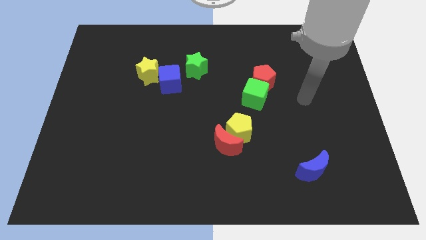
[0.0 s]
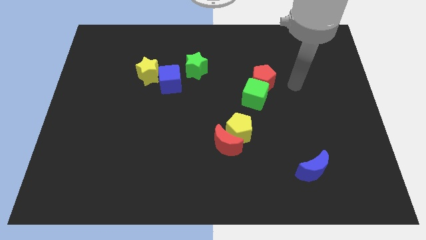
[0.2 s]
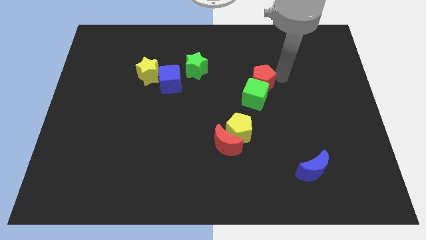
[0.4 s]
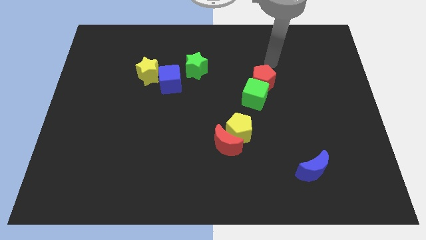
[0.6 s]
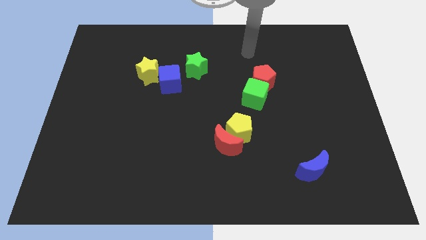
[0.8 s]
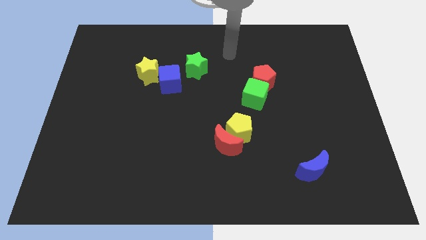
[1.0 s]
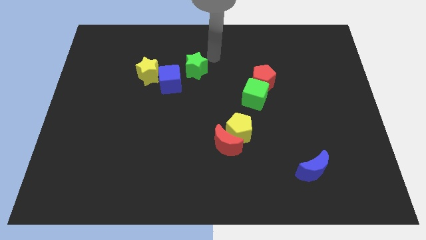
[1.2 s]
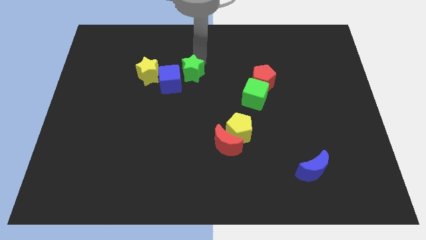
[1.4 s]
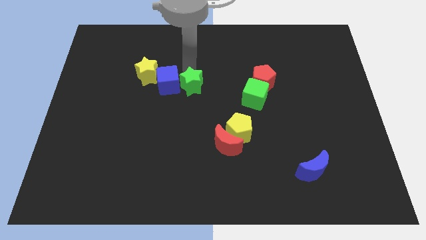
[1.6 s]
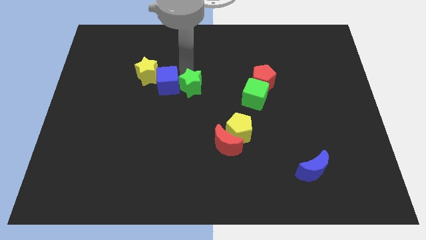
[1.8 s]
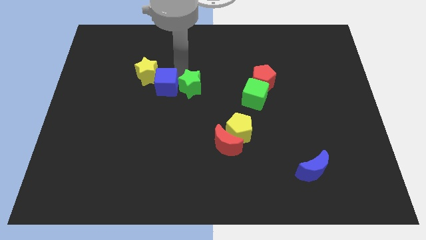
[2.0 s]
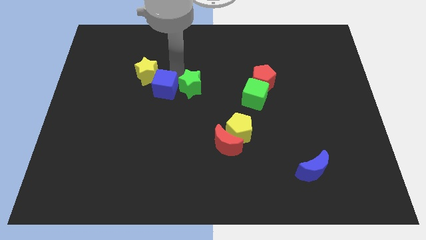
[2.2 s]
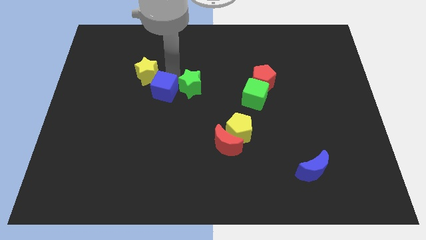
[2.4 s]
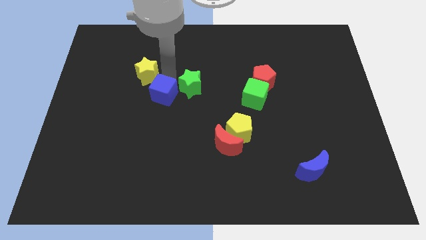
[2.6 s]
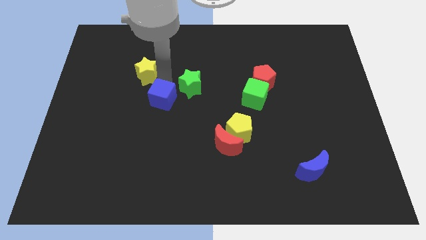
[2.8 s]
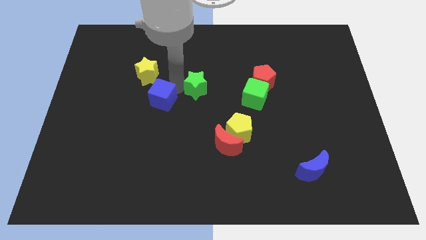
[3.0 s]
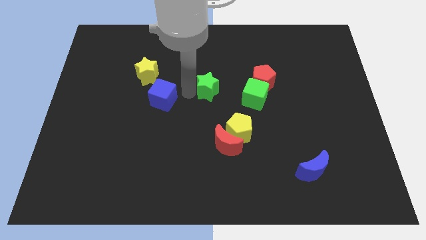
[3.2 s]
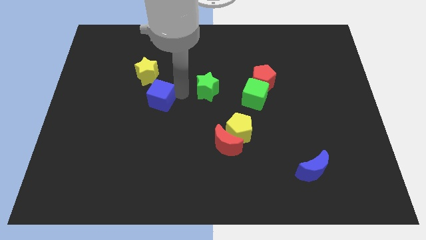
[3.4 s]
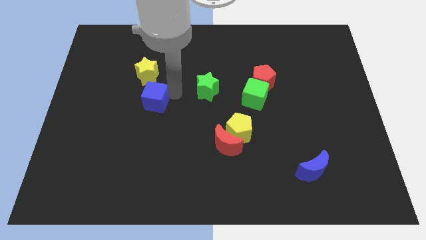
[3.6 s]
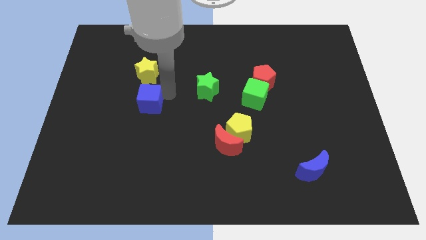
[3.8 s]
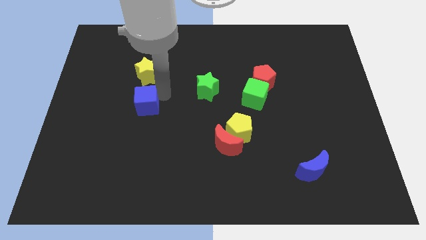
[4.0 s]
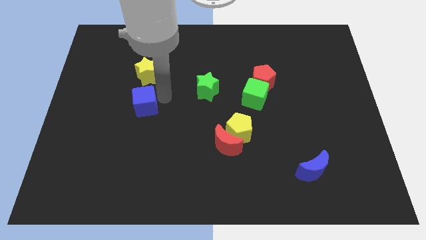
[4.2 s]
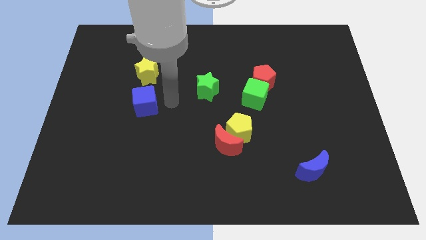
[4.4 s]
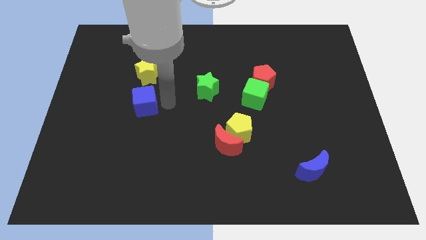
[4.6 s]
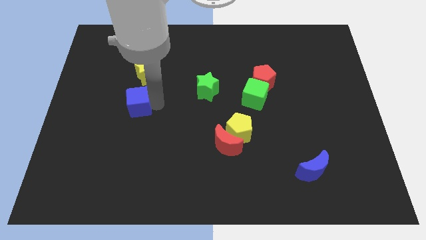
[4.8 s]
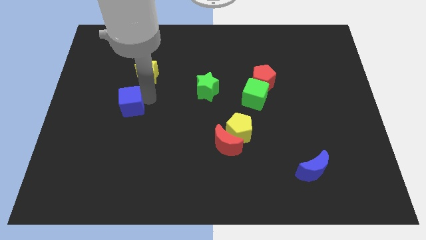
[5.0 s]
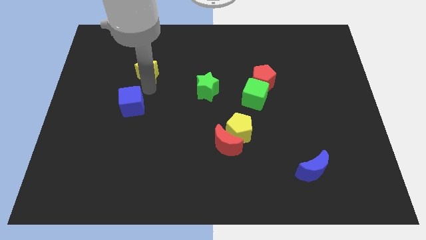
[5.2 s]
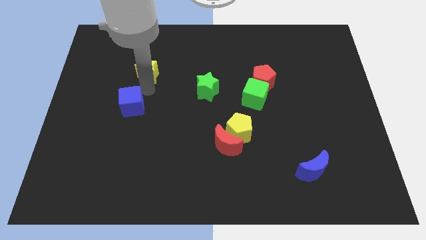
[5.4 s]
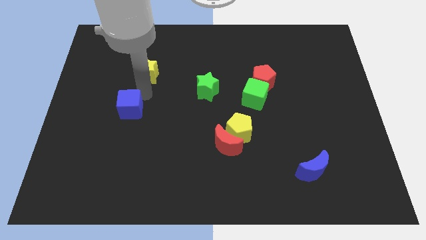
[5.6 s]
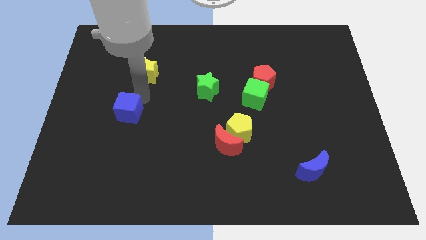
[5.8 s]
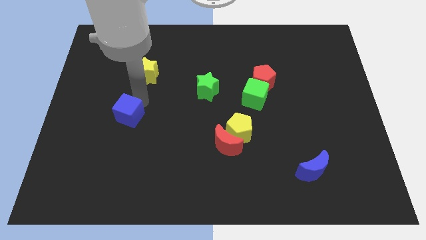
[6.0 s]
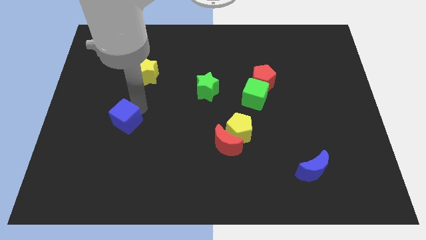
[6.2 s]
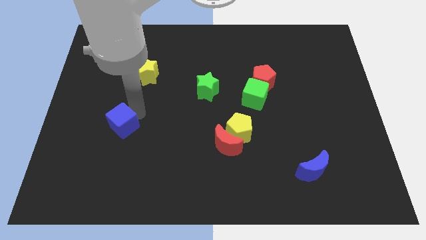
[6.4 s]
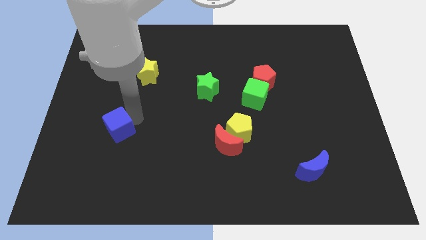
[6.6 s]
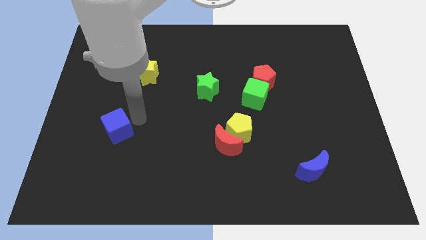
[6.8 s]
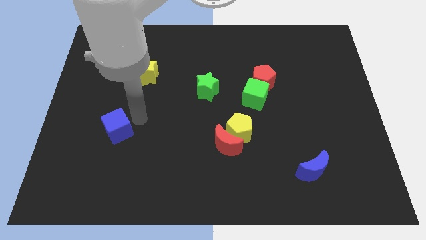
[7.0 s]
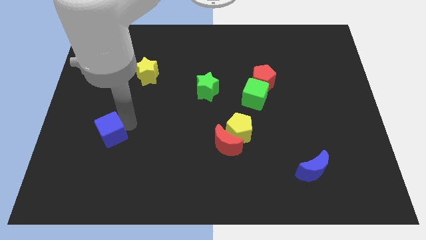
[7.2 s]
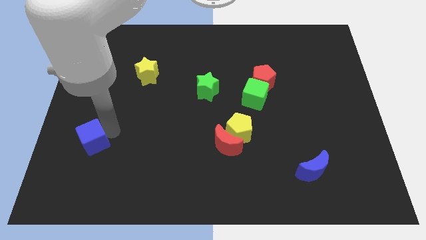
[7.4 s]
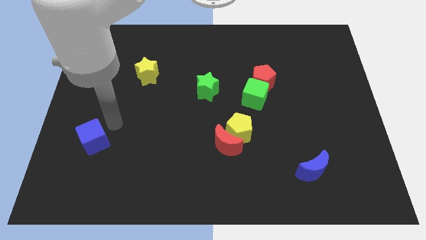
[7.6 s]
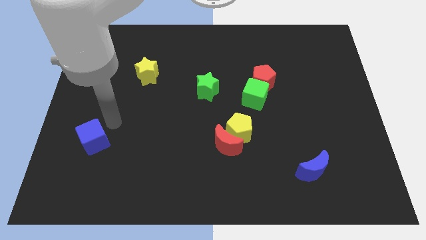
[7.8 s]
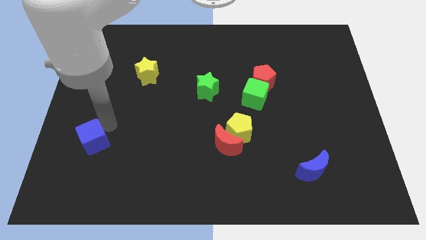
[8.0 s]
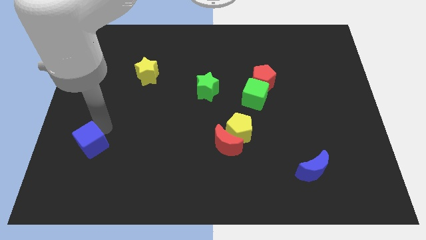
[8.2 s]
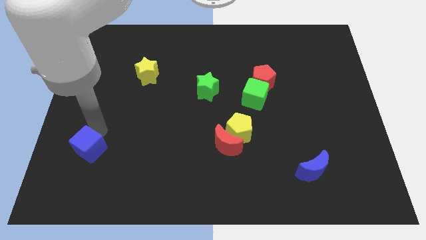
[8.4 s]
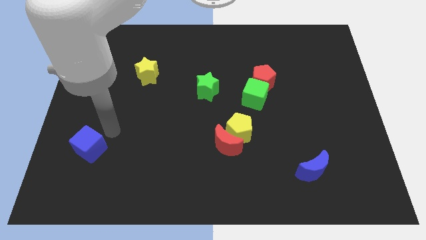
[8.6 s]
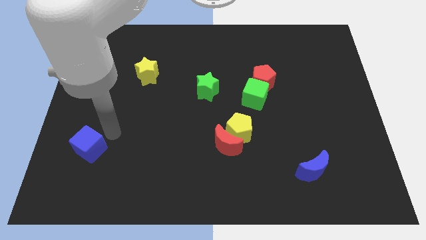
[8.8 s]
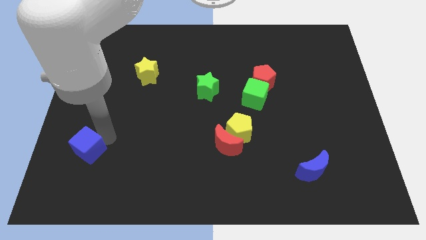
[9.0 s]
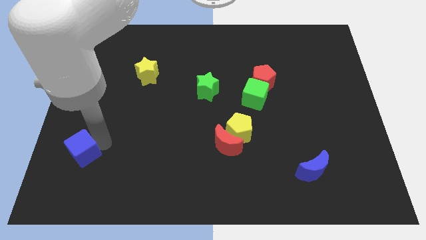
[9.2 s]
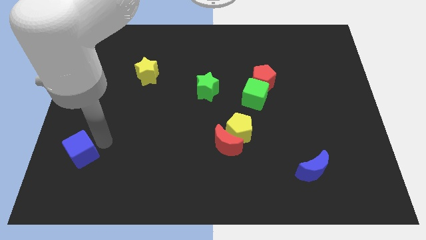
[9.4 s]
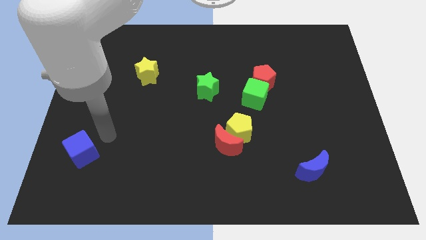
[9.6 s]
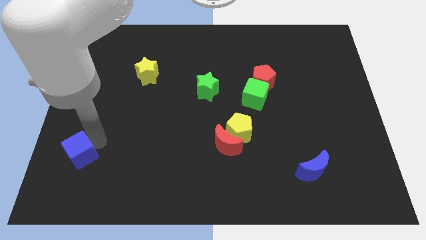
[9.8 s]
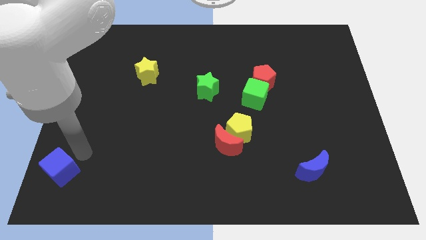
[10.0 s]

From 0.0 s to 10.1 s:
move the blue cube to the bottom left corner

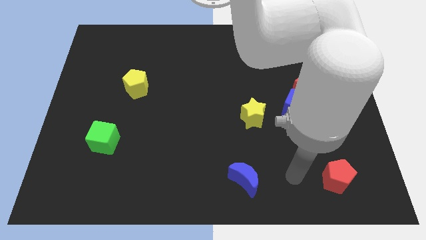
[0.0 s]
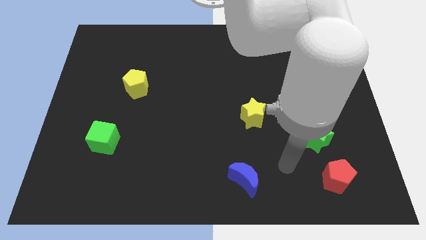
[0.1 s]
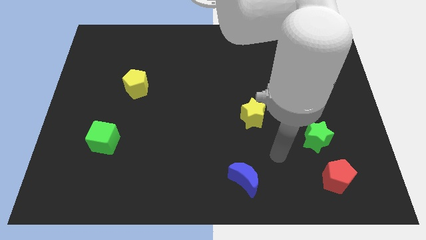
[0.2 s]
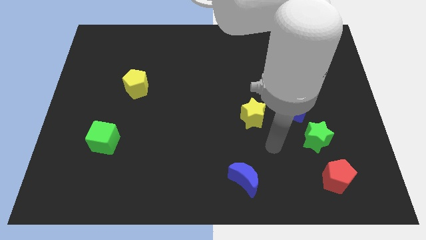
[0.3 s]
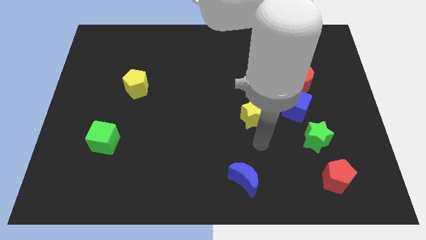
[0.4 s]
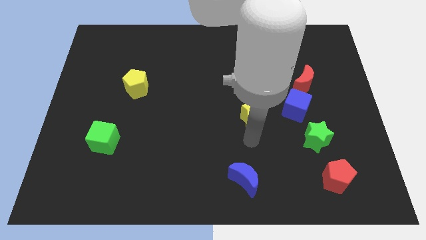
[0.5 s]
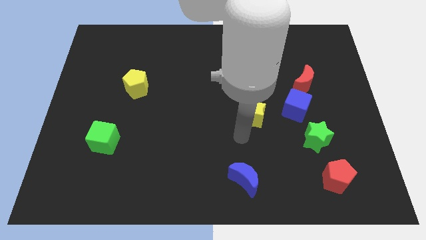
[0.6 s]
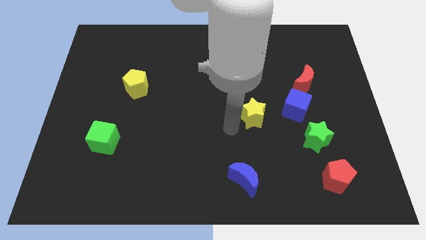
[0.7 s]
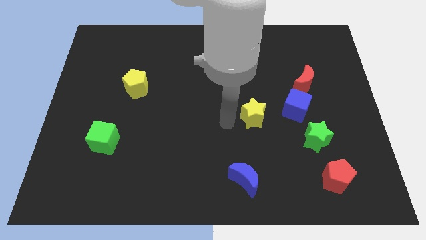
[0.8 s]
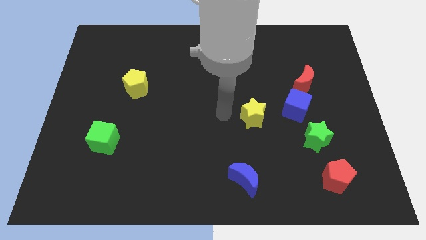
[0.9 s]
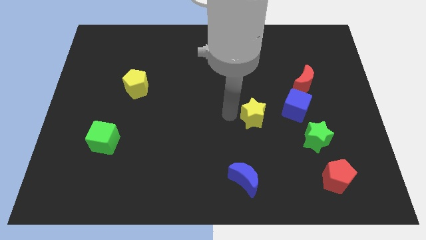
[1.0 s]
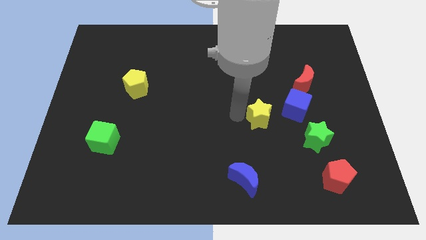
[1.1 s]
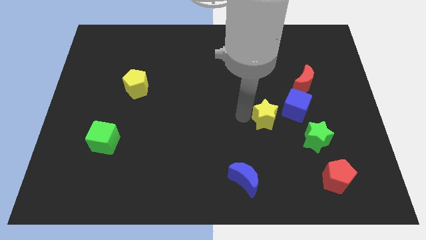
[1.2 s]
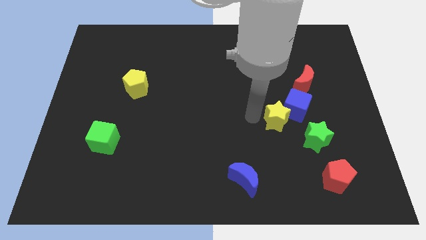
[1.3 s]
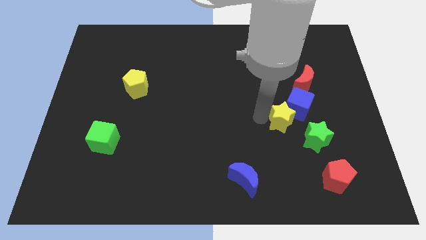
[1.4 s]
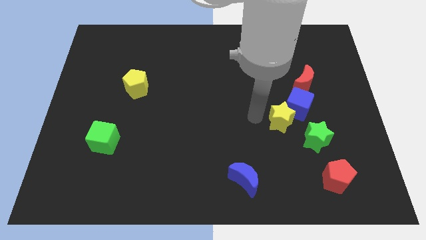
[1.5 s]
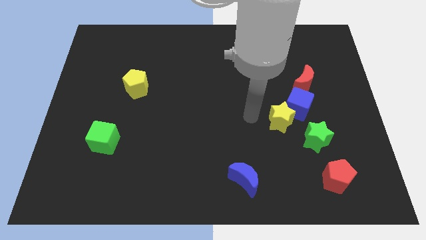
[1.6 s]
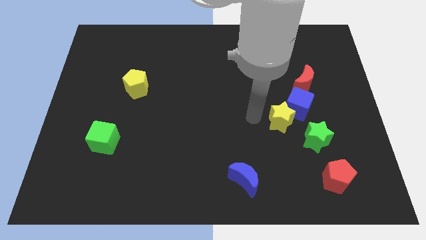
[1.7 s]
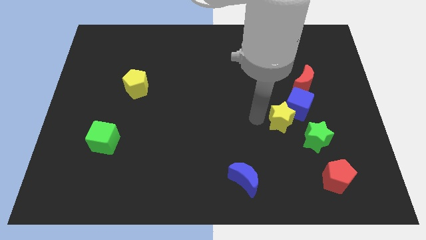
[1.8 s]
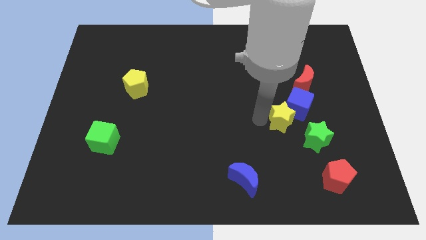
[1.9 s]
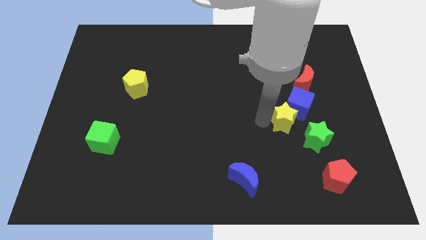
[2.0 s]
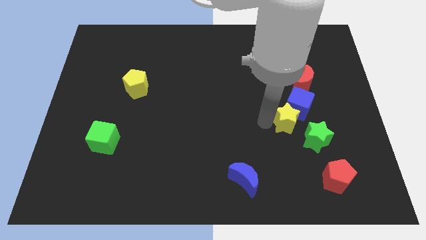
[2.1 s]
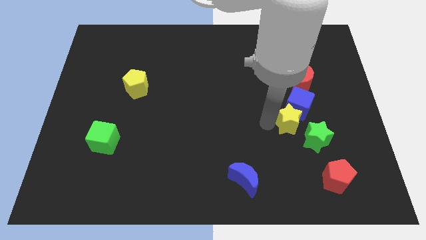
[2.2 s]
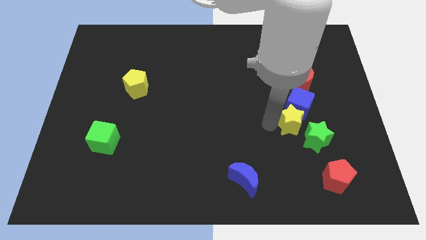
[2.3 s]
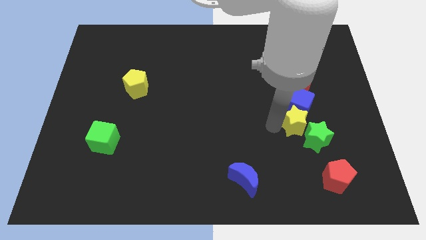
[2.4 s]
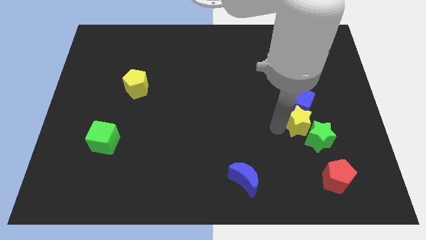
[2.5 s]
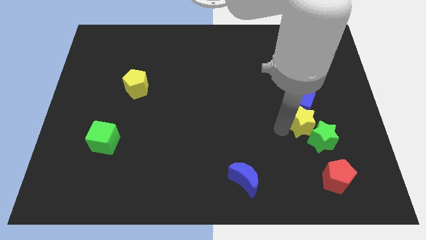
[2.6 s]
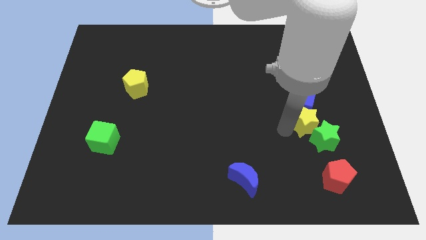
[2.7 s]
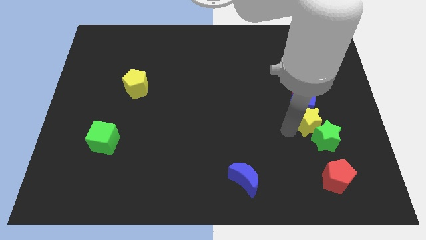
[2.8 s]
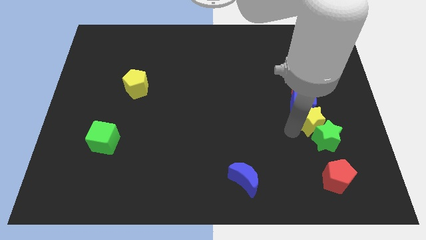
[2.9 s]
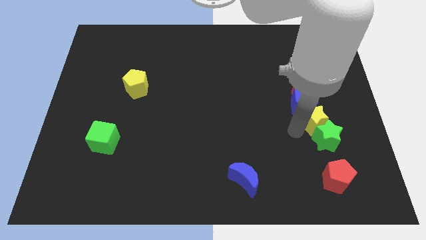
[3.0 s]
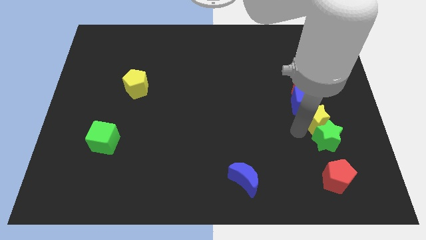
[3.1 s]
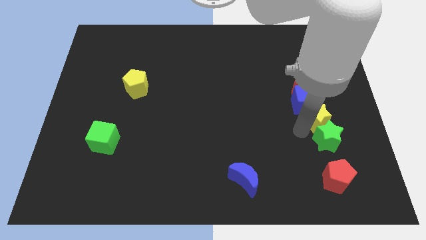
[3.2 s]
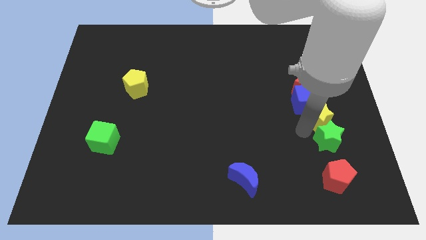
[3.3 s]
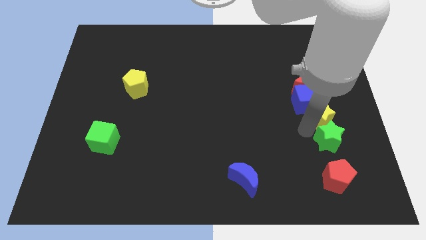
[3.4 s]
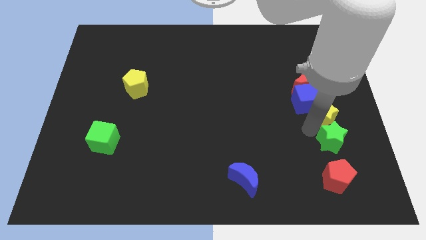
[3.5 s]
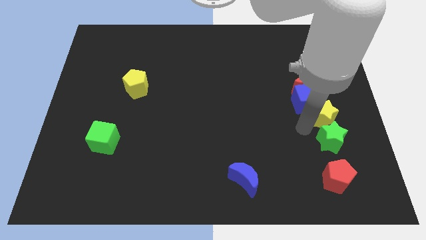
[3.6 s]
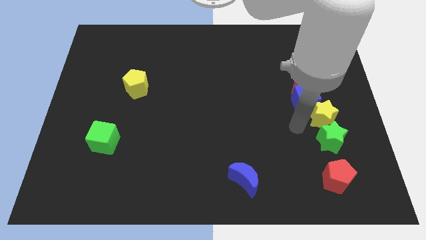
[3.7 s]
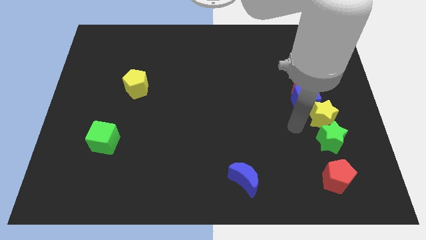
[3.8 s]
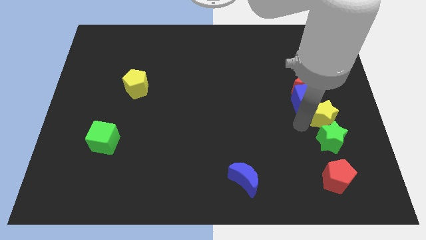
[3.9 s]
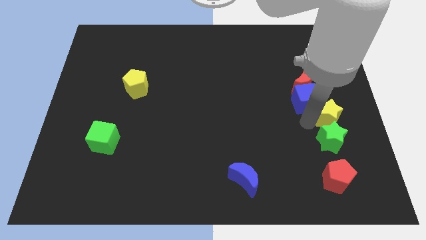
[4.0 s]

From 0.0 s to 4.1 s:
put the yellow star to the center right
